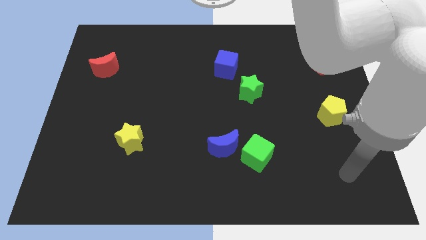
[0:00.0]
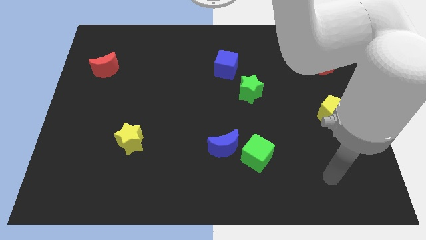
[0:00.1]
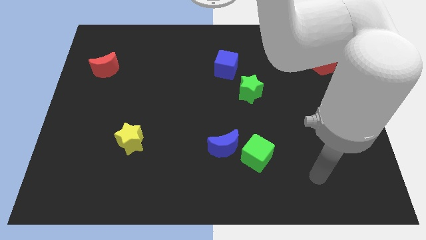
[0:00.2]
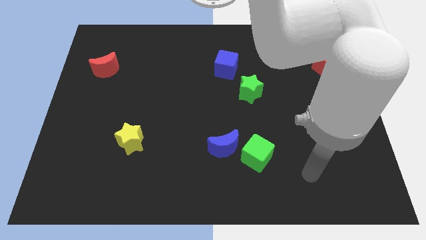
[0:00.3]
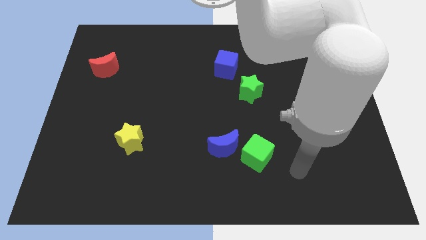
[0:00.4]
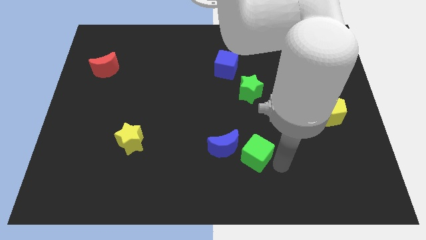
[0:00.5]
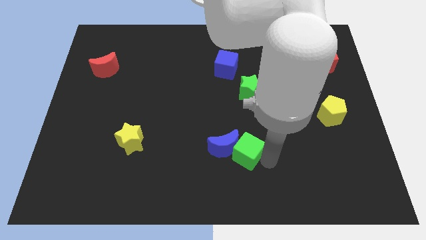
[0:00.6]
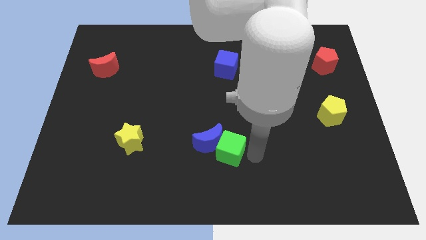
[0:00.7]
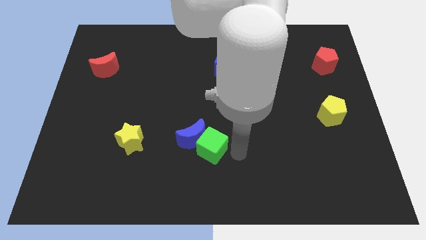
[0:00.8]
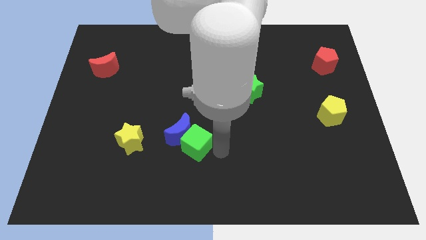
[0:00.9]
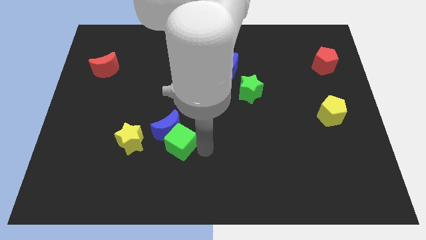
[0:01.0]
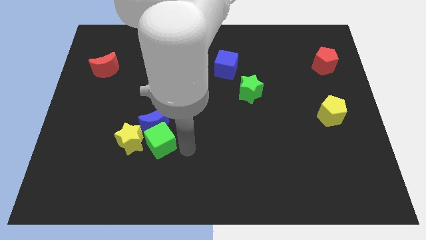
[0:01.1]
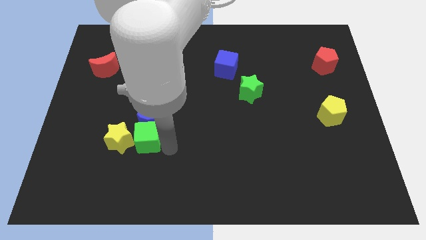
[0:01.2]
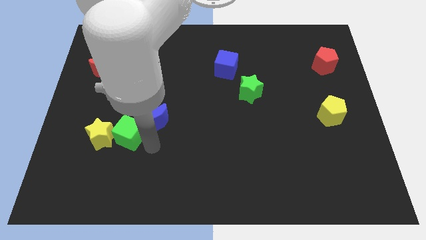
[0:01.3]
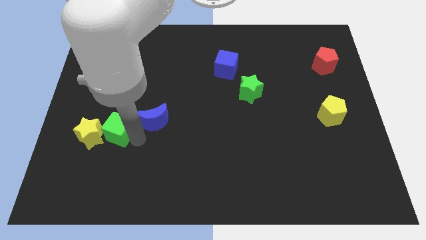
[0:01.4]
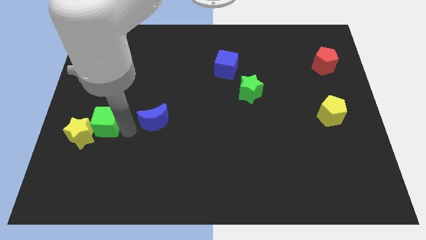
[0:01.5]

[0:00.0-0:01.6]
pull the blue moon apart from the green cube

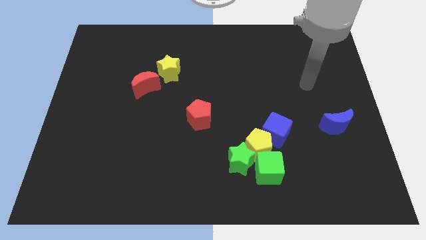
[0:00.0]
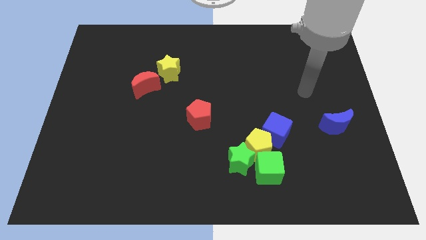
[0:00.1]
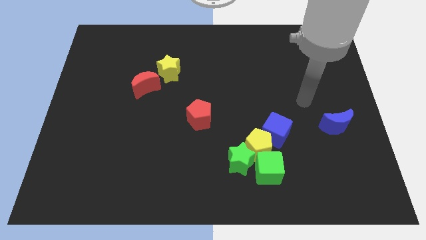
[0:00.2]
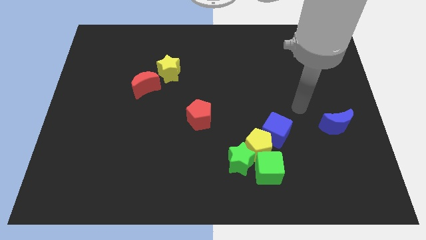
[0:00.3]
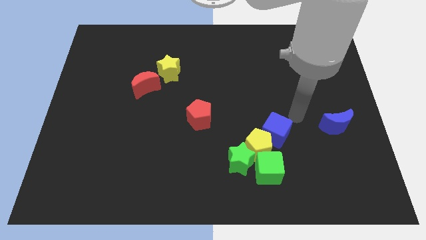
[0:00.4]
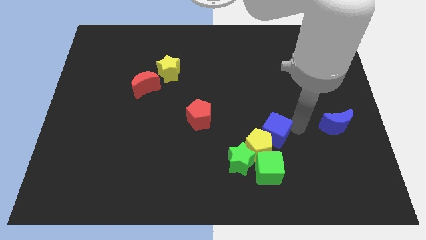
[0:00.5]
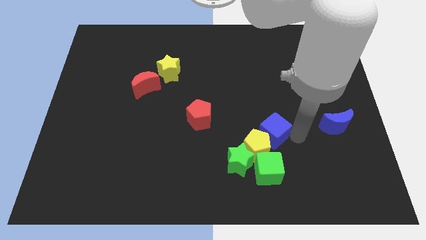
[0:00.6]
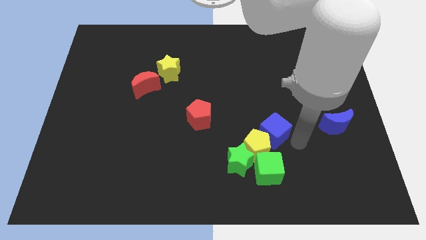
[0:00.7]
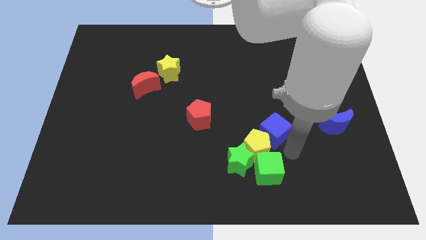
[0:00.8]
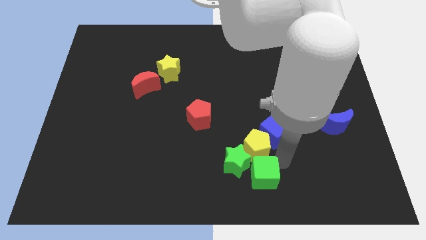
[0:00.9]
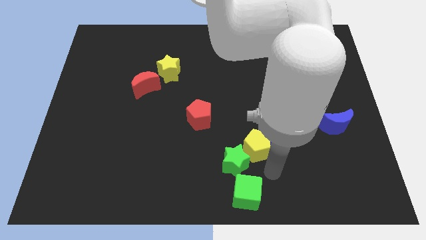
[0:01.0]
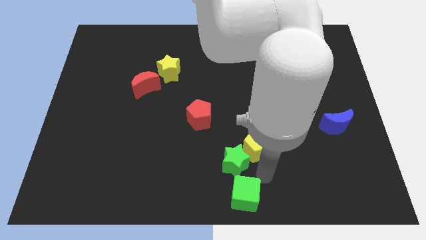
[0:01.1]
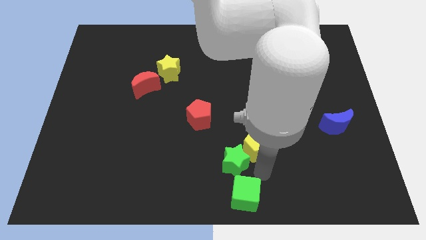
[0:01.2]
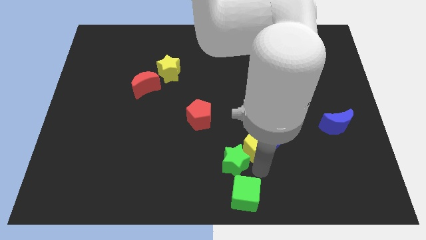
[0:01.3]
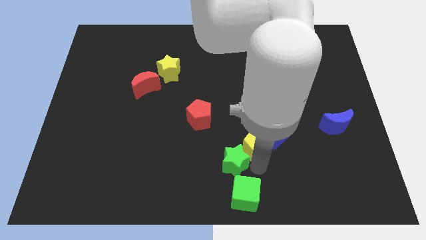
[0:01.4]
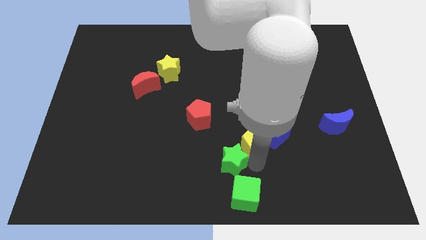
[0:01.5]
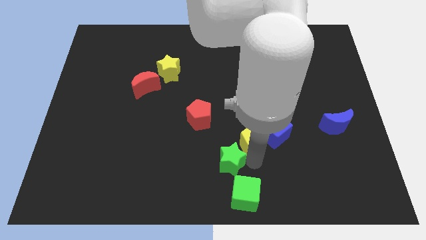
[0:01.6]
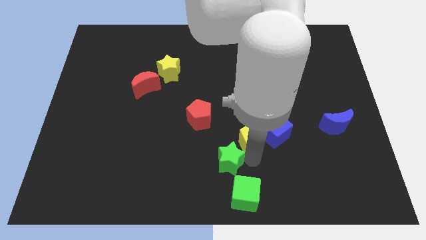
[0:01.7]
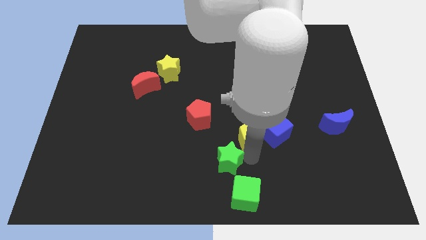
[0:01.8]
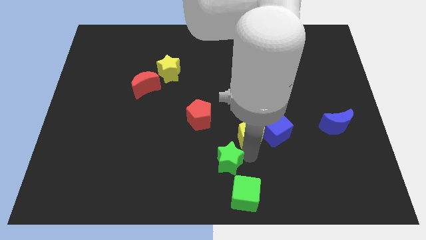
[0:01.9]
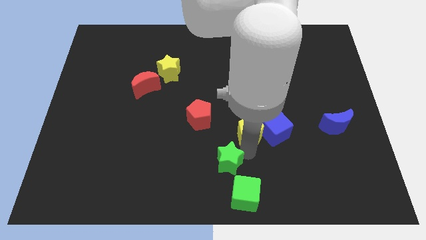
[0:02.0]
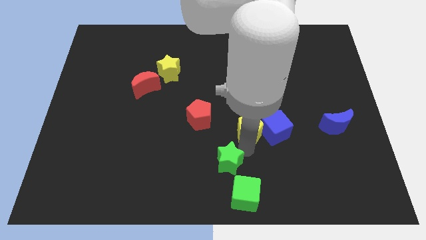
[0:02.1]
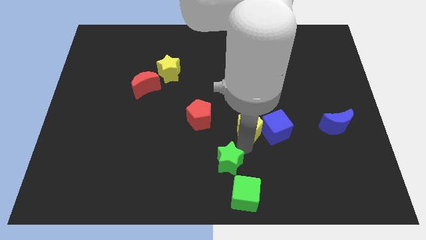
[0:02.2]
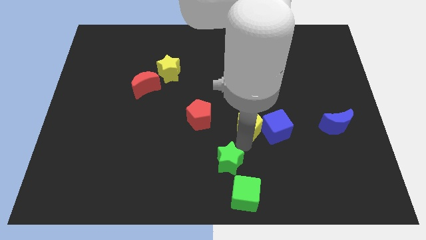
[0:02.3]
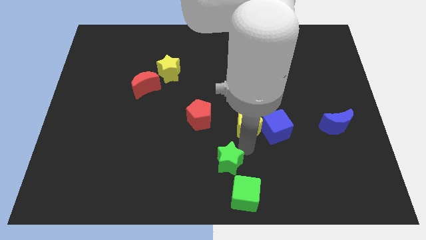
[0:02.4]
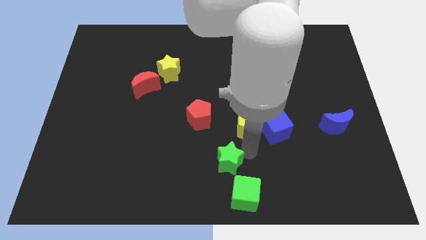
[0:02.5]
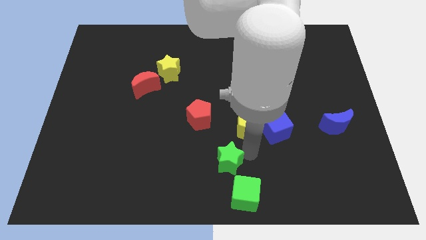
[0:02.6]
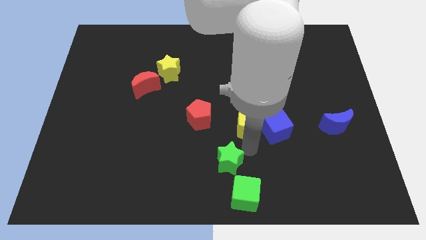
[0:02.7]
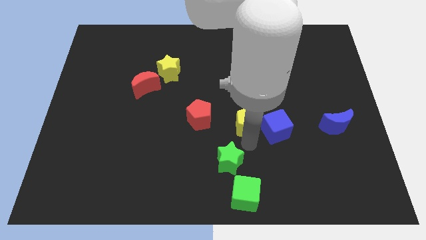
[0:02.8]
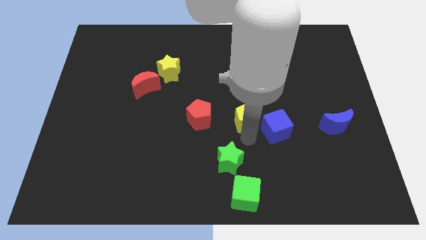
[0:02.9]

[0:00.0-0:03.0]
pull the yellow pentagon apart from the clump

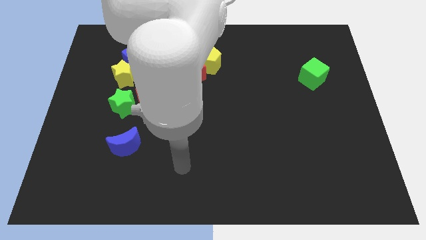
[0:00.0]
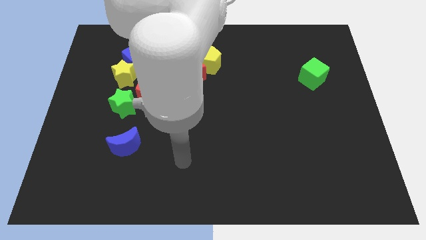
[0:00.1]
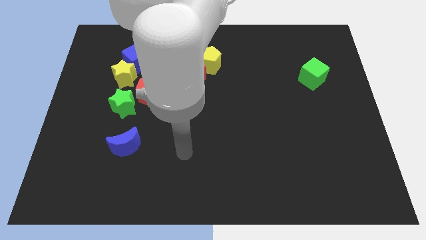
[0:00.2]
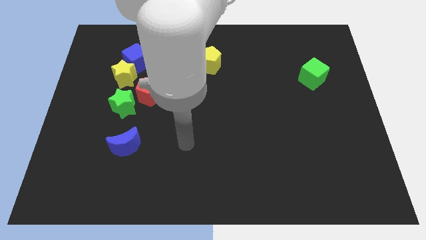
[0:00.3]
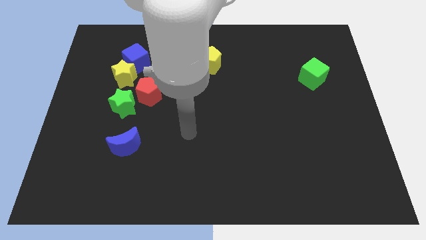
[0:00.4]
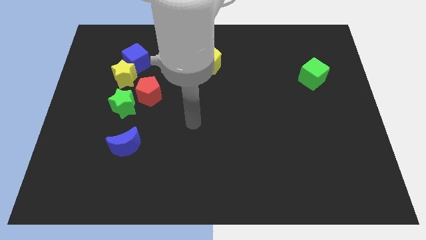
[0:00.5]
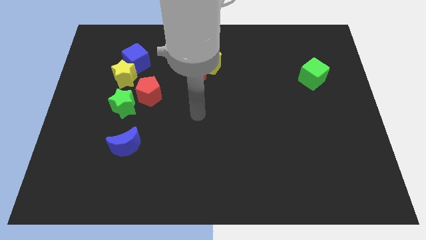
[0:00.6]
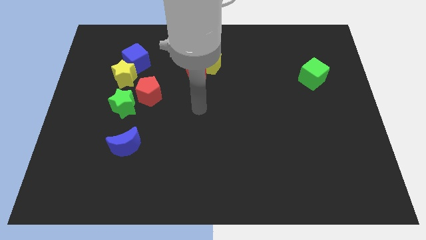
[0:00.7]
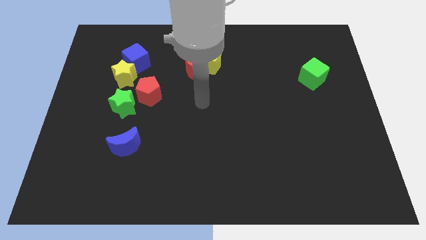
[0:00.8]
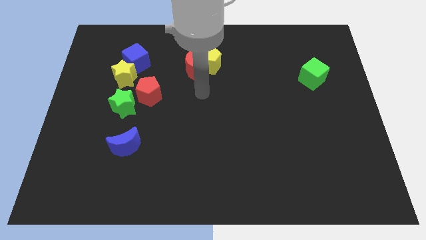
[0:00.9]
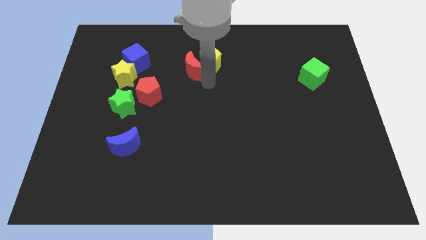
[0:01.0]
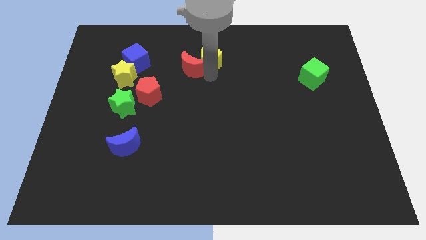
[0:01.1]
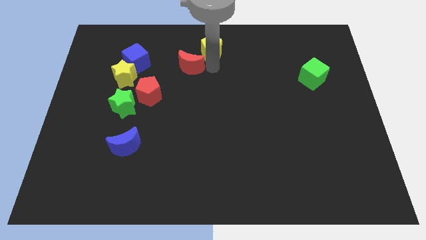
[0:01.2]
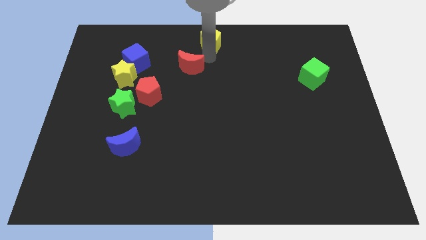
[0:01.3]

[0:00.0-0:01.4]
move the red moon away from the yellow pentagon

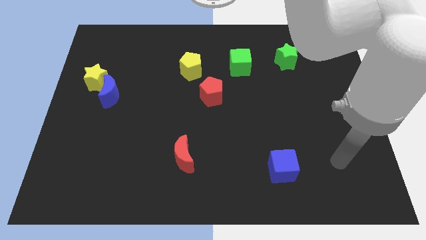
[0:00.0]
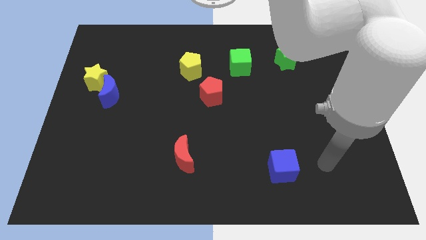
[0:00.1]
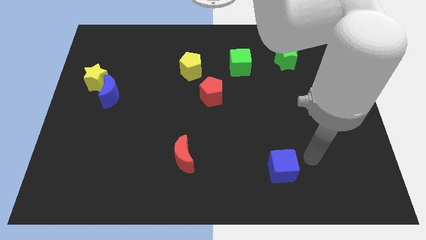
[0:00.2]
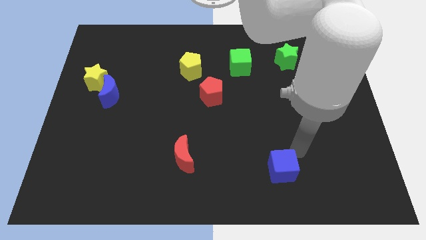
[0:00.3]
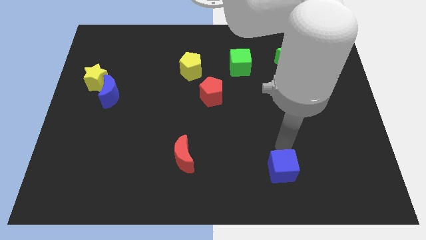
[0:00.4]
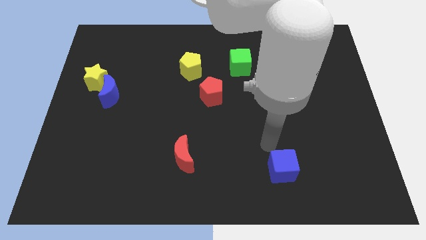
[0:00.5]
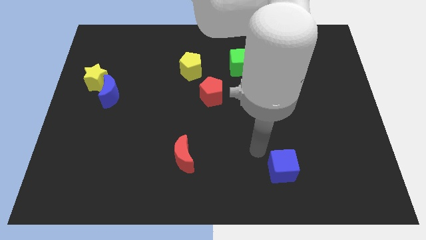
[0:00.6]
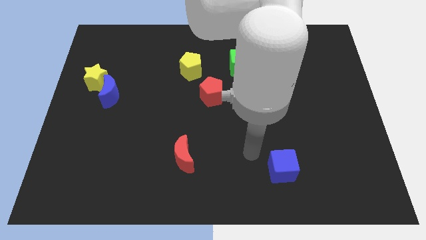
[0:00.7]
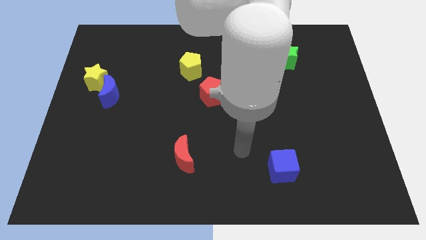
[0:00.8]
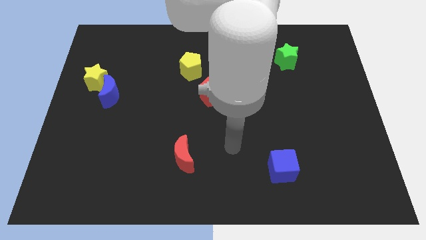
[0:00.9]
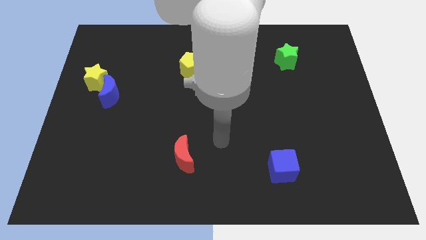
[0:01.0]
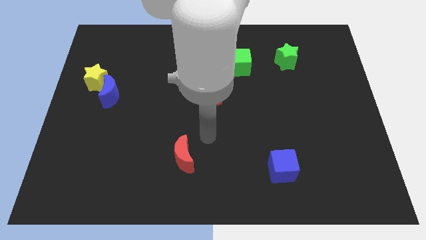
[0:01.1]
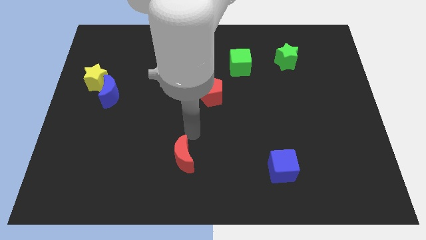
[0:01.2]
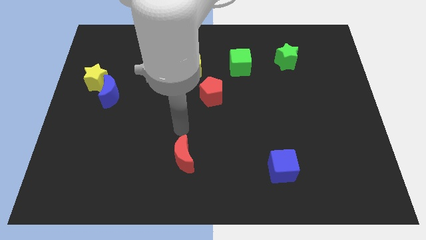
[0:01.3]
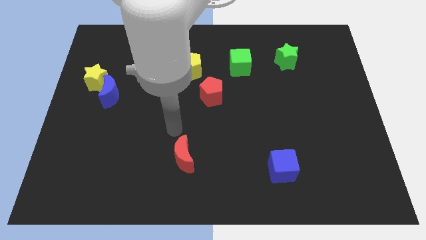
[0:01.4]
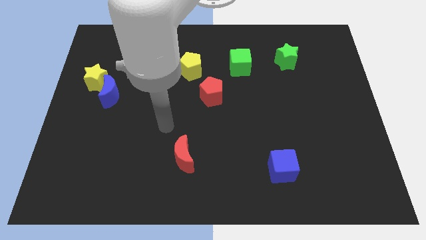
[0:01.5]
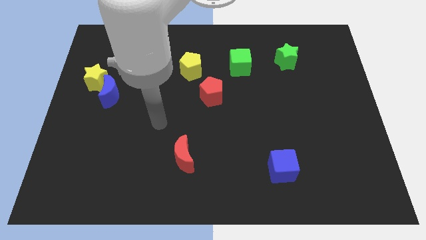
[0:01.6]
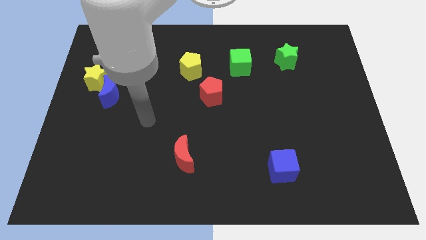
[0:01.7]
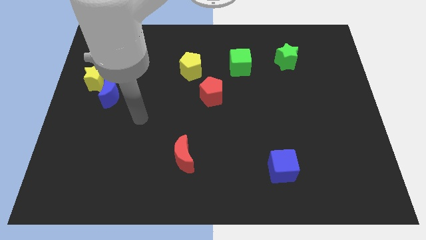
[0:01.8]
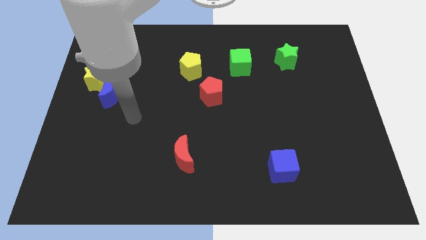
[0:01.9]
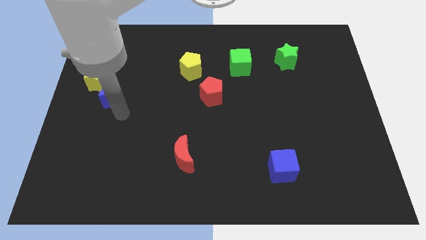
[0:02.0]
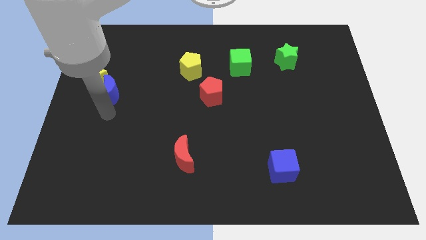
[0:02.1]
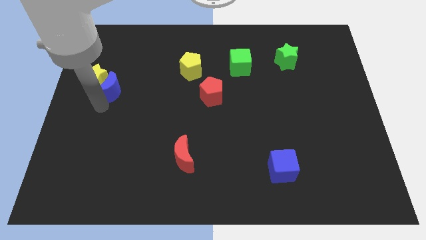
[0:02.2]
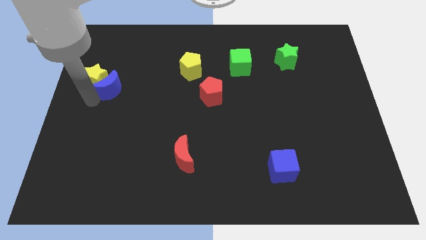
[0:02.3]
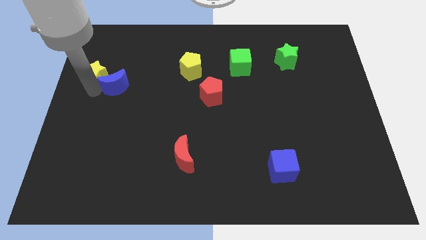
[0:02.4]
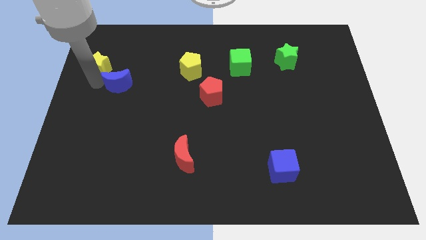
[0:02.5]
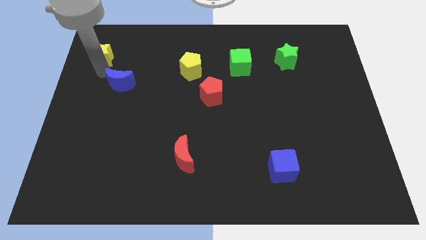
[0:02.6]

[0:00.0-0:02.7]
move the blue moon away from the yellow star

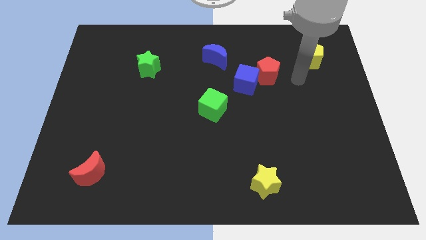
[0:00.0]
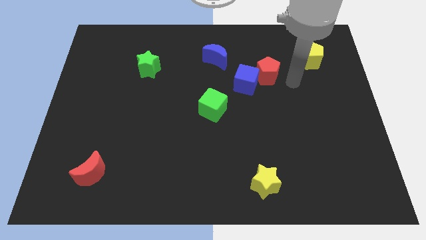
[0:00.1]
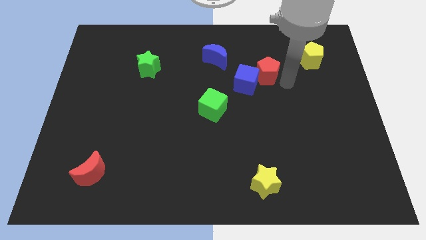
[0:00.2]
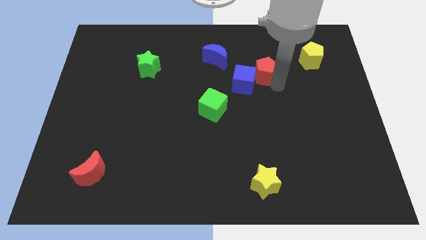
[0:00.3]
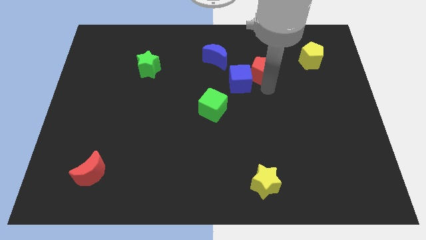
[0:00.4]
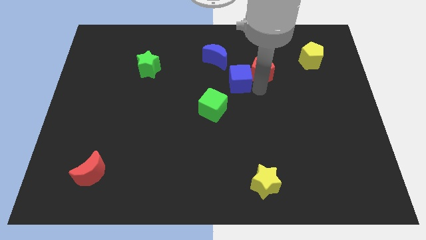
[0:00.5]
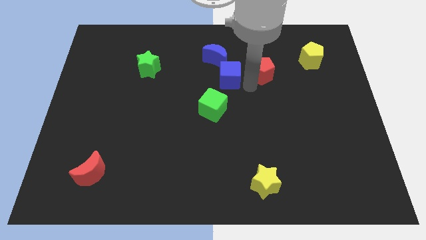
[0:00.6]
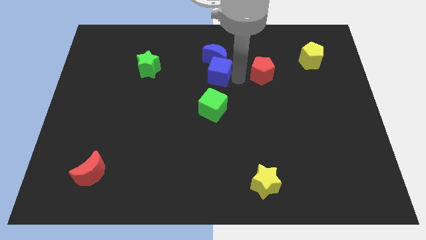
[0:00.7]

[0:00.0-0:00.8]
move the red pentagon away from the blue cube
